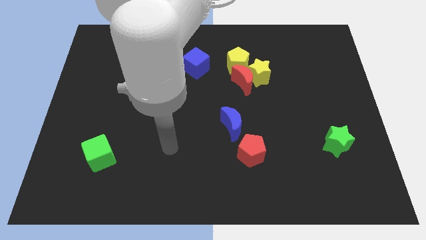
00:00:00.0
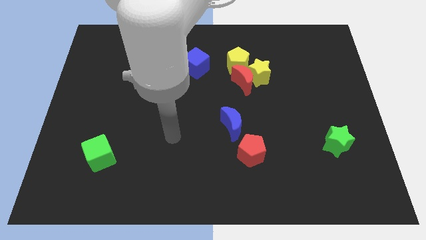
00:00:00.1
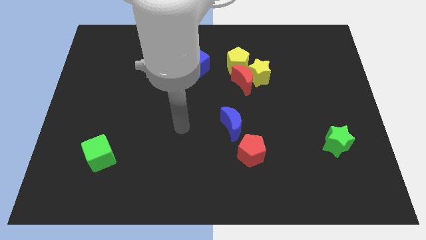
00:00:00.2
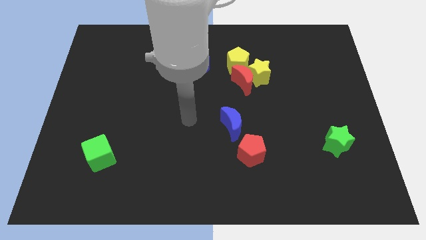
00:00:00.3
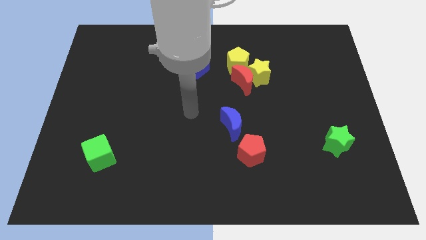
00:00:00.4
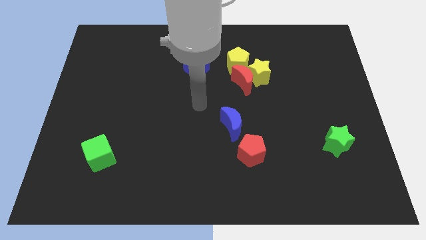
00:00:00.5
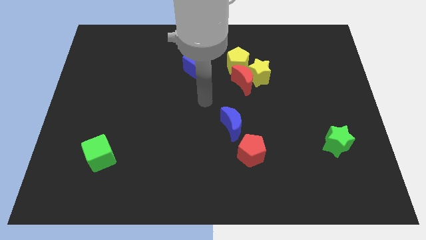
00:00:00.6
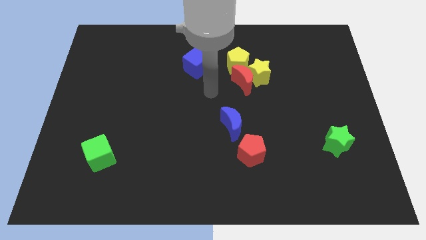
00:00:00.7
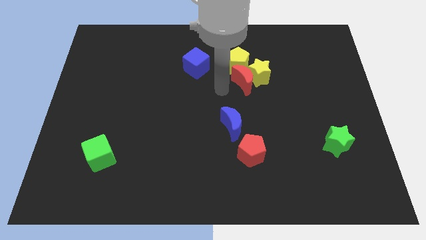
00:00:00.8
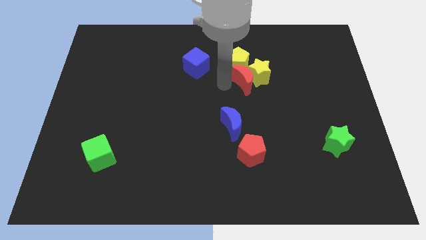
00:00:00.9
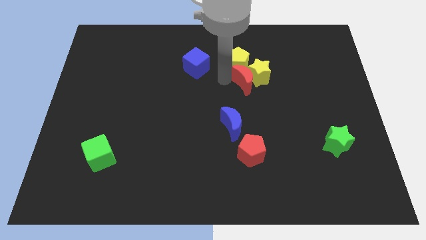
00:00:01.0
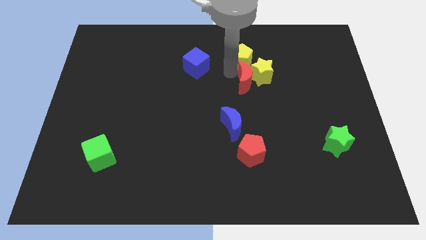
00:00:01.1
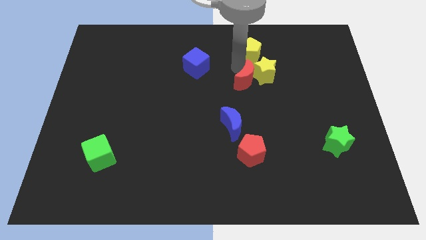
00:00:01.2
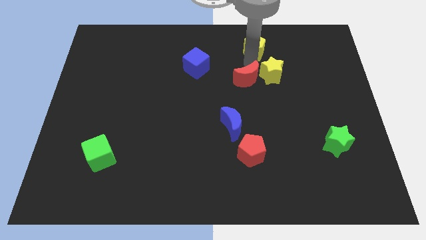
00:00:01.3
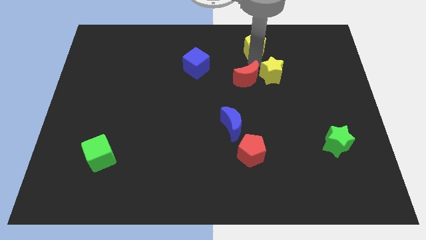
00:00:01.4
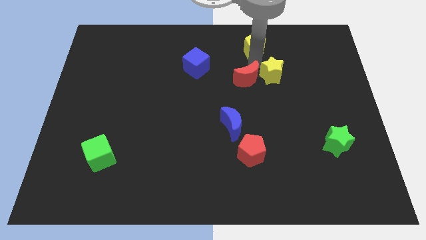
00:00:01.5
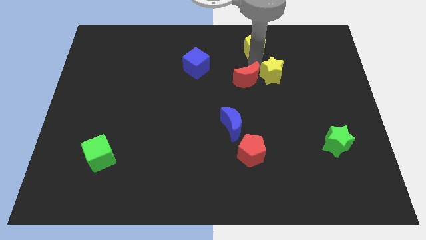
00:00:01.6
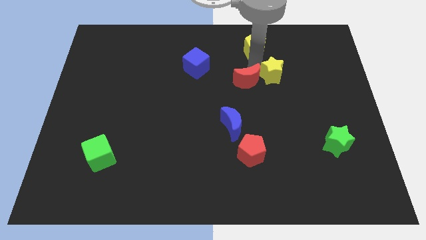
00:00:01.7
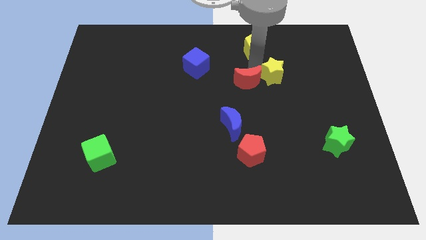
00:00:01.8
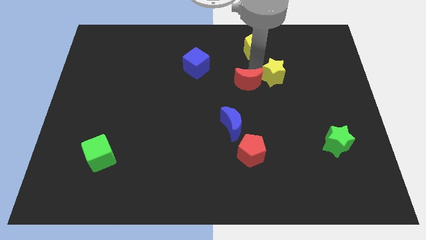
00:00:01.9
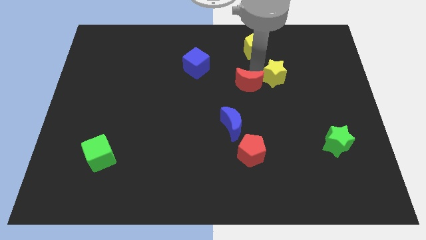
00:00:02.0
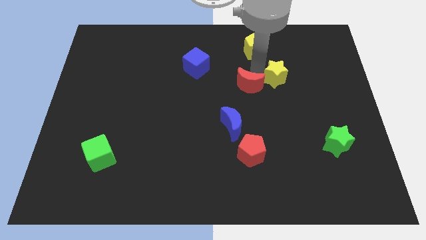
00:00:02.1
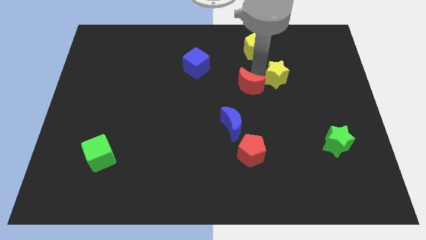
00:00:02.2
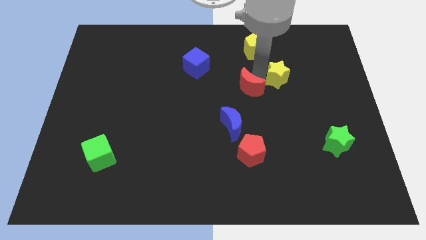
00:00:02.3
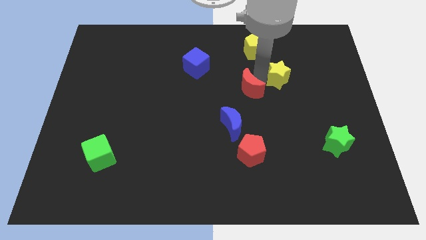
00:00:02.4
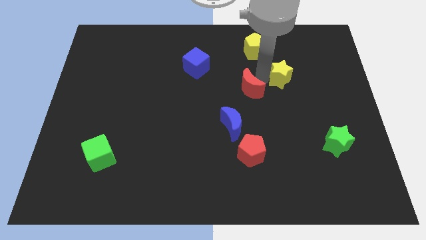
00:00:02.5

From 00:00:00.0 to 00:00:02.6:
separate the red moon from the yellow star and yellow pentagon

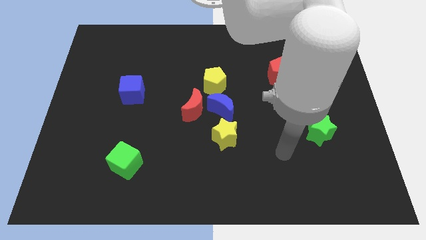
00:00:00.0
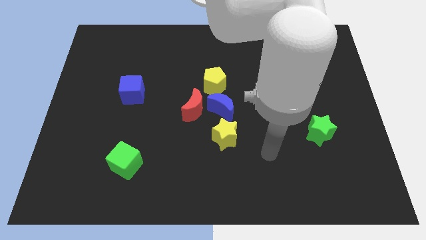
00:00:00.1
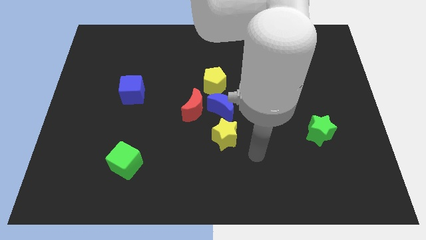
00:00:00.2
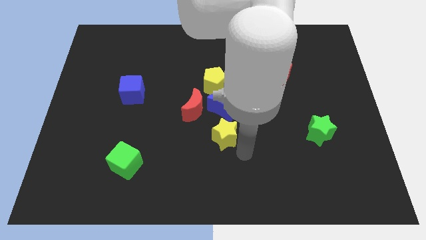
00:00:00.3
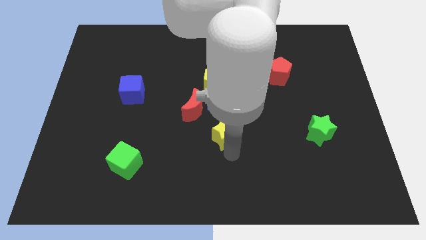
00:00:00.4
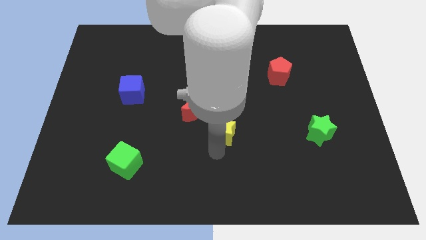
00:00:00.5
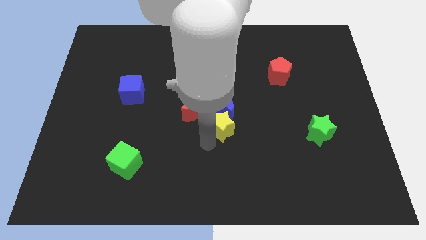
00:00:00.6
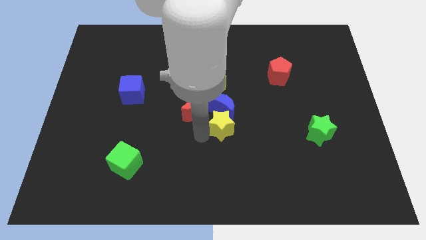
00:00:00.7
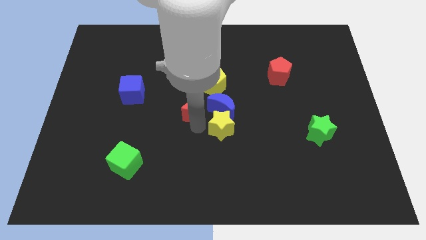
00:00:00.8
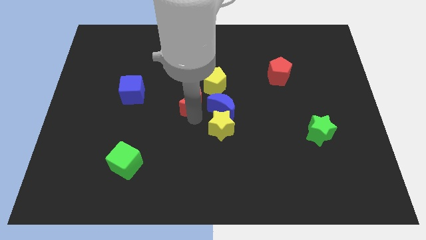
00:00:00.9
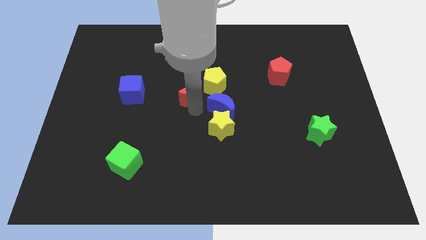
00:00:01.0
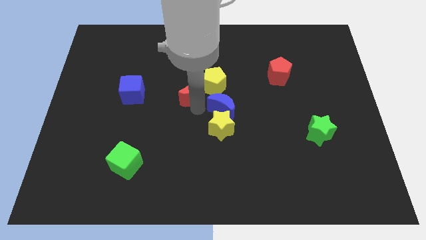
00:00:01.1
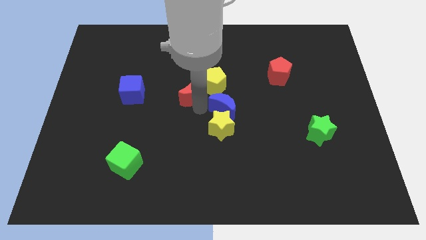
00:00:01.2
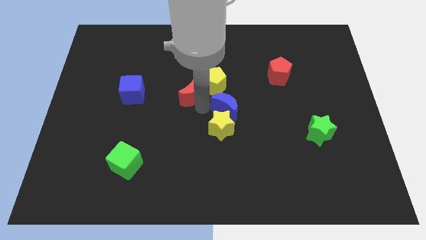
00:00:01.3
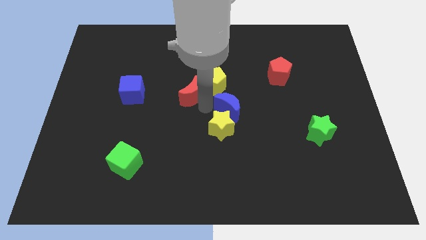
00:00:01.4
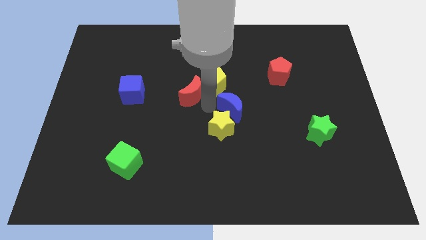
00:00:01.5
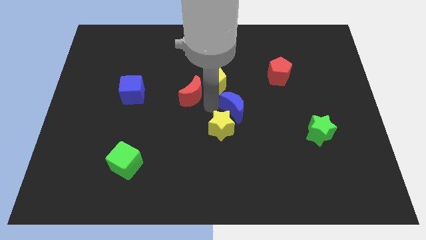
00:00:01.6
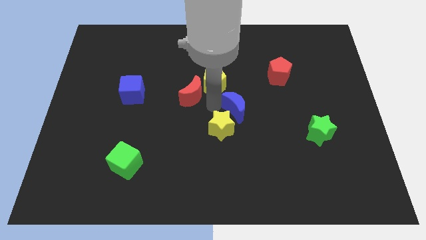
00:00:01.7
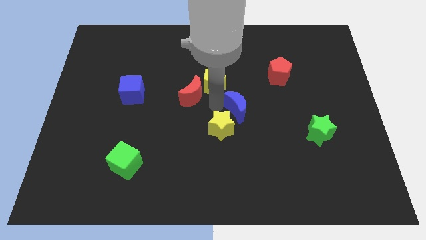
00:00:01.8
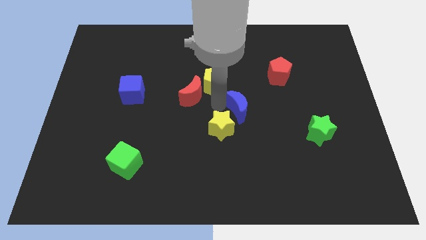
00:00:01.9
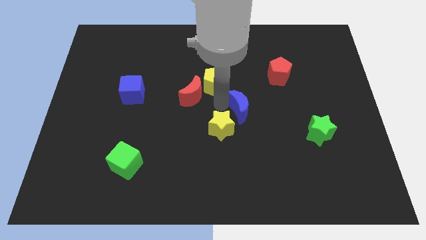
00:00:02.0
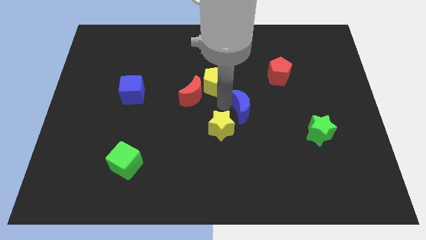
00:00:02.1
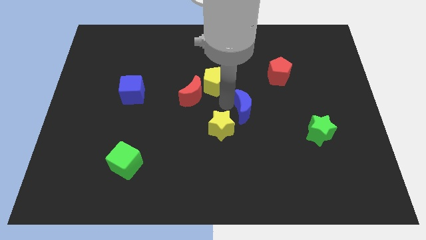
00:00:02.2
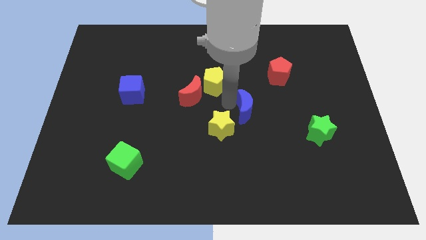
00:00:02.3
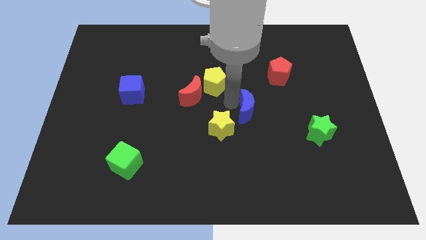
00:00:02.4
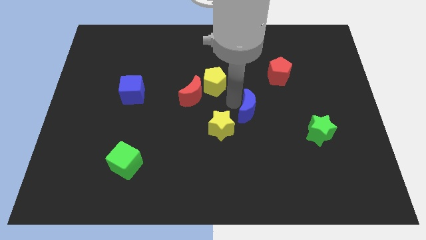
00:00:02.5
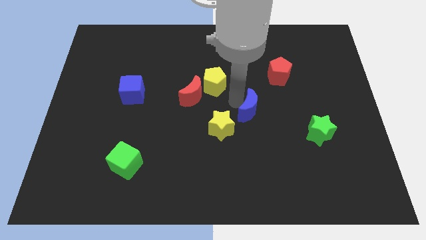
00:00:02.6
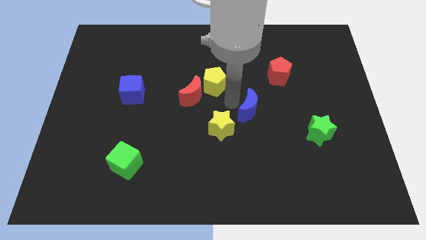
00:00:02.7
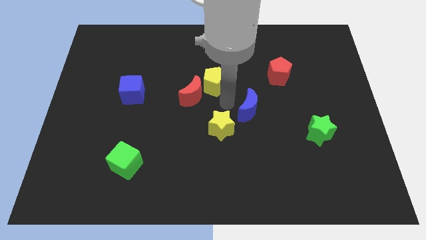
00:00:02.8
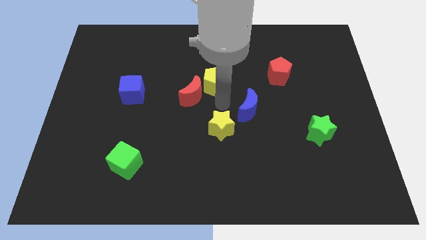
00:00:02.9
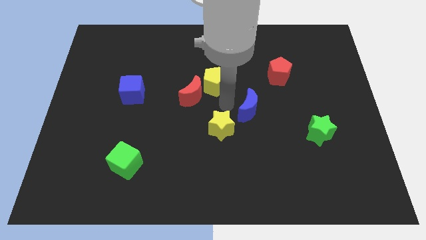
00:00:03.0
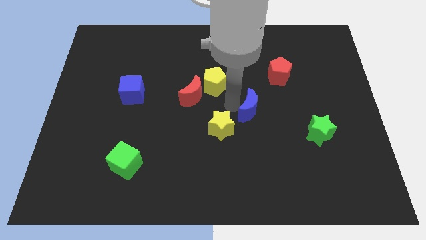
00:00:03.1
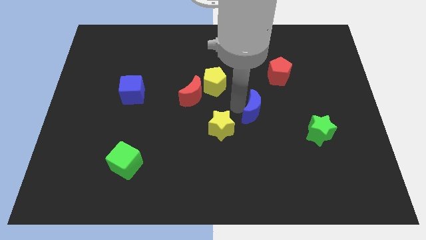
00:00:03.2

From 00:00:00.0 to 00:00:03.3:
separate the blue moon from the group

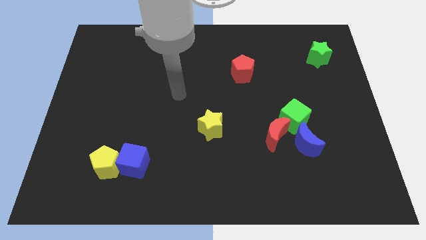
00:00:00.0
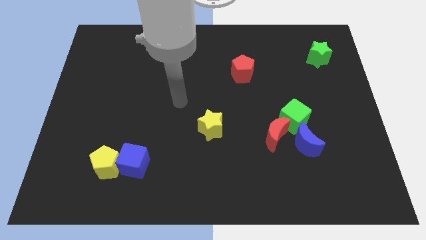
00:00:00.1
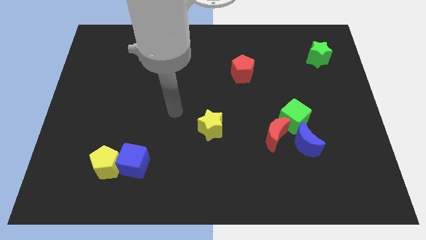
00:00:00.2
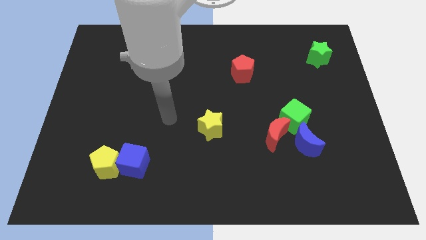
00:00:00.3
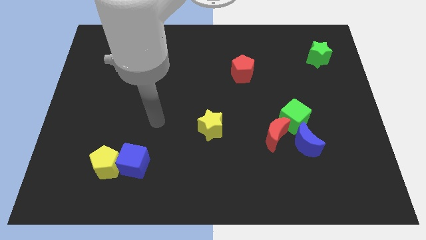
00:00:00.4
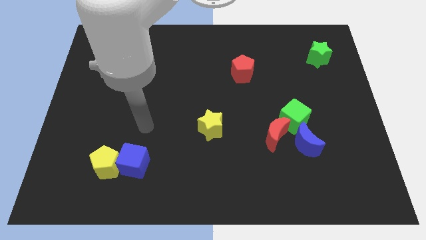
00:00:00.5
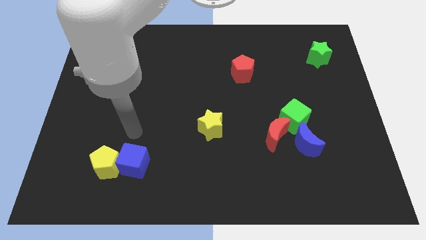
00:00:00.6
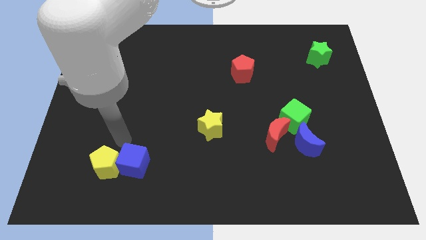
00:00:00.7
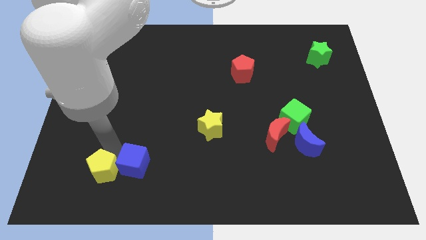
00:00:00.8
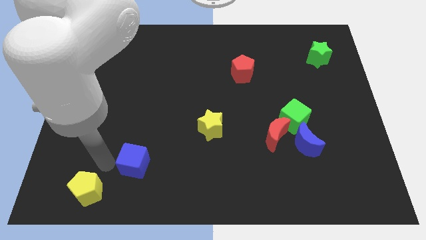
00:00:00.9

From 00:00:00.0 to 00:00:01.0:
pull the blue cube apart from the yellow pentagon

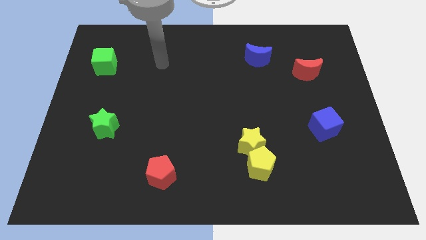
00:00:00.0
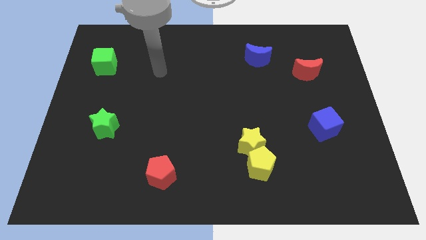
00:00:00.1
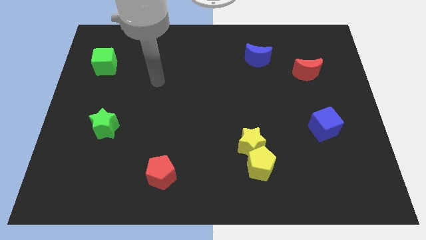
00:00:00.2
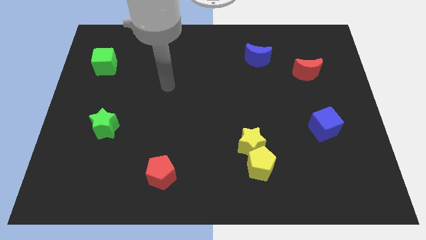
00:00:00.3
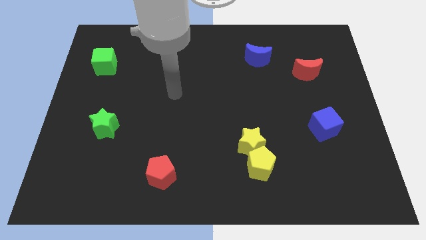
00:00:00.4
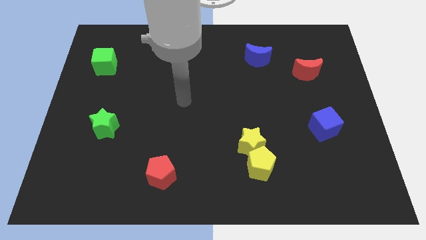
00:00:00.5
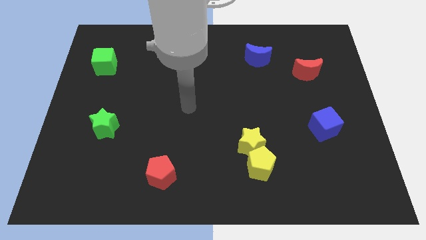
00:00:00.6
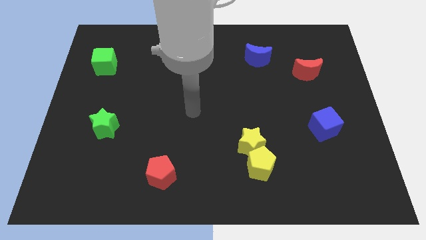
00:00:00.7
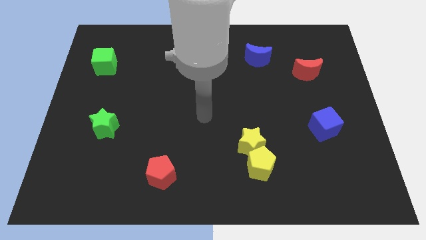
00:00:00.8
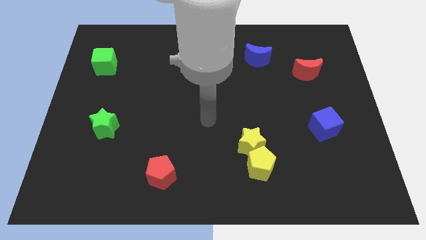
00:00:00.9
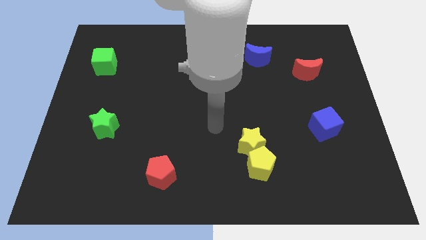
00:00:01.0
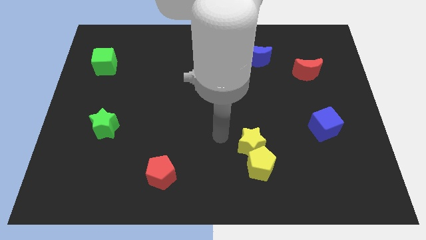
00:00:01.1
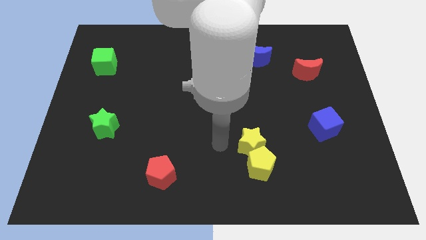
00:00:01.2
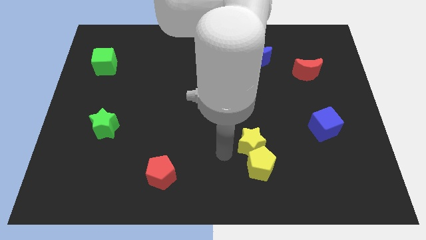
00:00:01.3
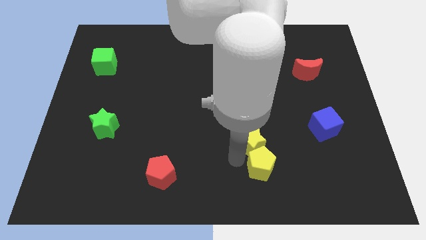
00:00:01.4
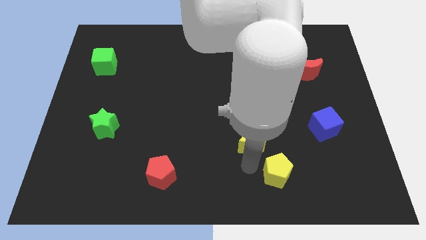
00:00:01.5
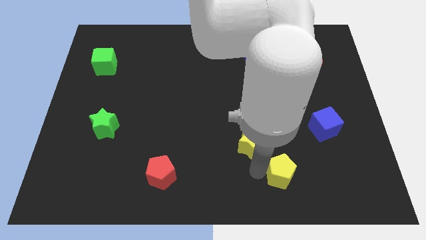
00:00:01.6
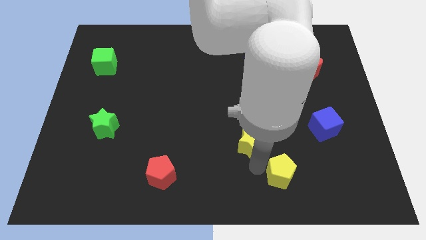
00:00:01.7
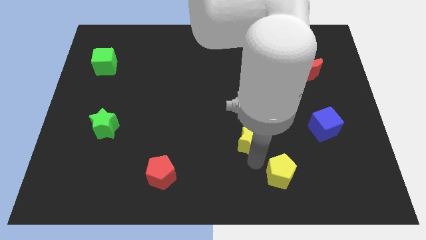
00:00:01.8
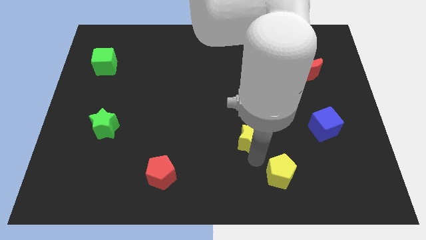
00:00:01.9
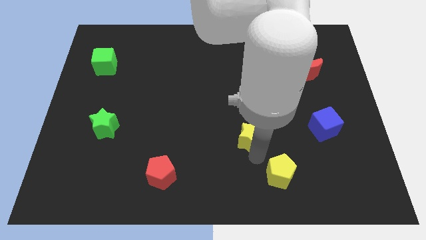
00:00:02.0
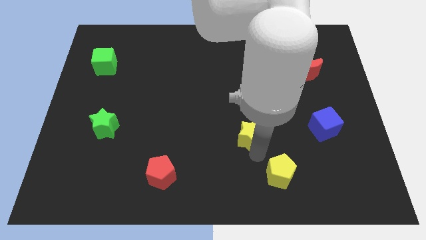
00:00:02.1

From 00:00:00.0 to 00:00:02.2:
move the yellow star away from the yellow pentagon

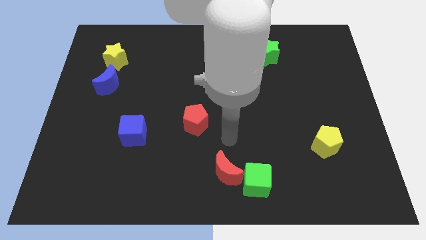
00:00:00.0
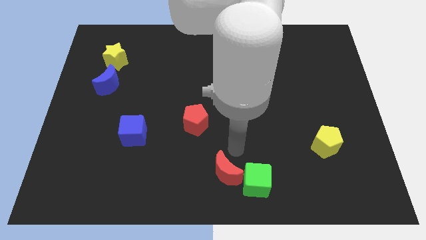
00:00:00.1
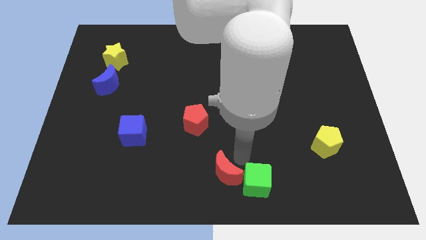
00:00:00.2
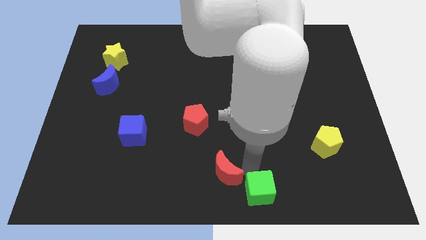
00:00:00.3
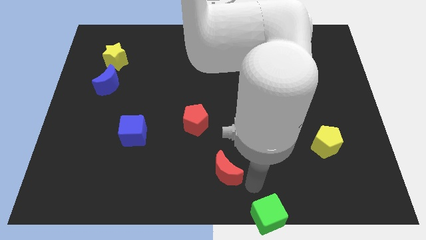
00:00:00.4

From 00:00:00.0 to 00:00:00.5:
separate the red moon from the green cube
